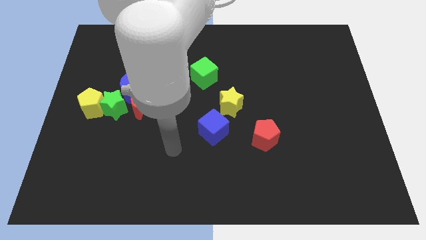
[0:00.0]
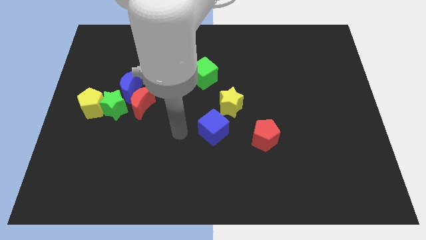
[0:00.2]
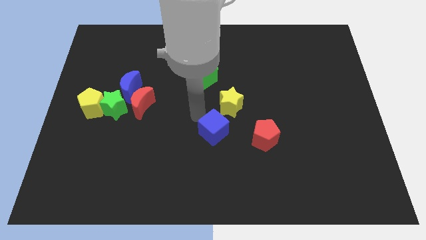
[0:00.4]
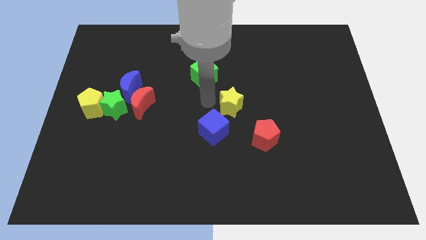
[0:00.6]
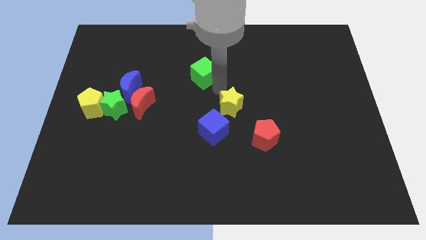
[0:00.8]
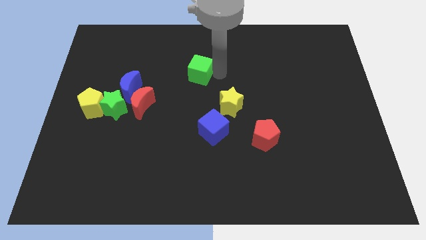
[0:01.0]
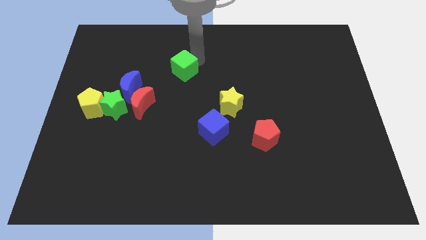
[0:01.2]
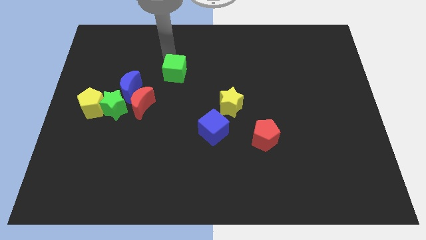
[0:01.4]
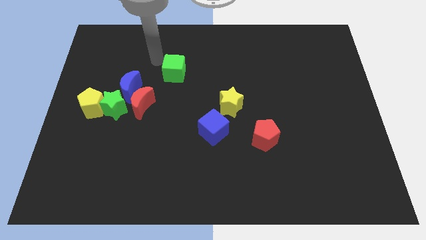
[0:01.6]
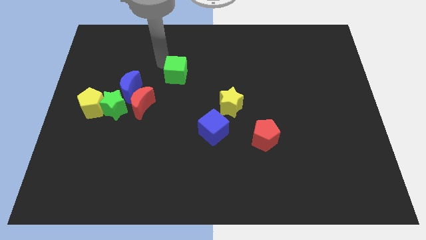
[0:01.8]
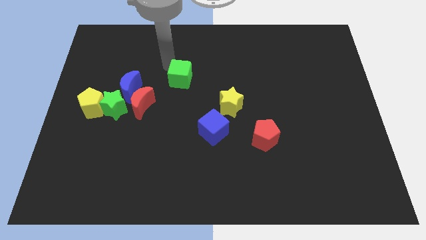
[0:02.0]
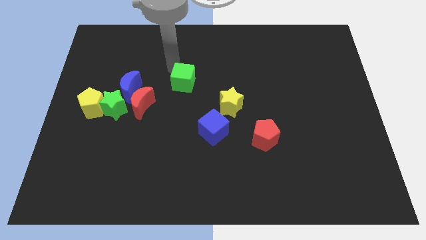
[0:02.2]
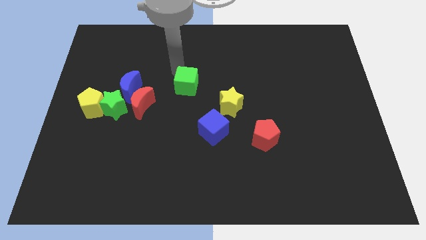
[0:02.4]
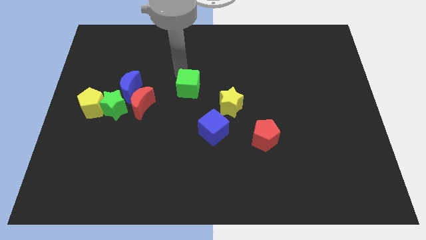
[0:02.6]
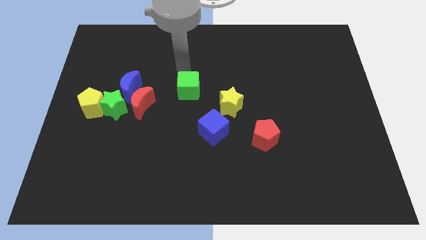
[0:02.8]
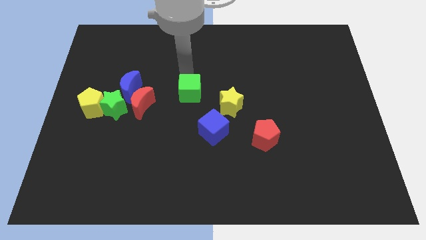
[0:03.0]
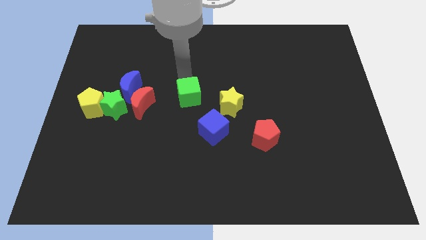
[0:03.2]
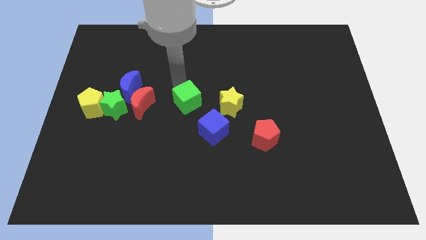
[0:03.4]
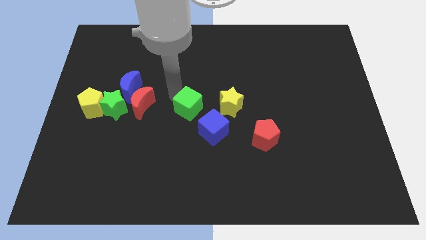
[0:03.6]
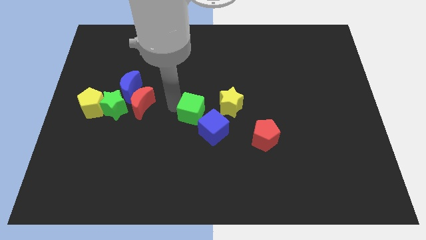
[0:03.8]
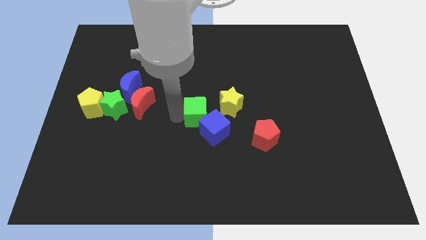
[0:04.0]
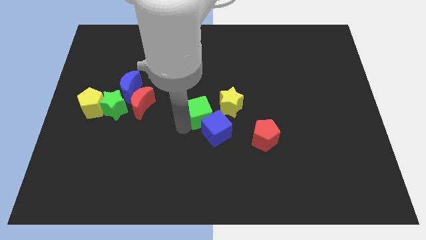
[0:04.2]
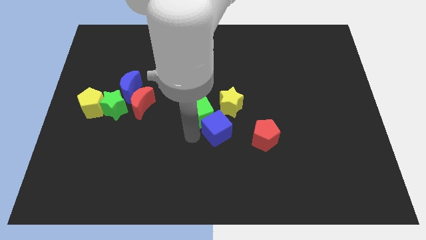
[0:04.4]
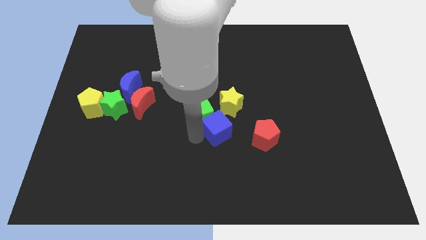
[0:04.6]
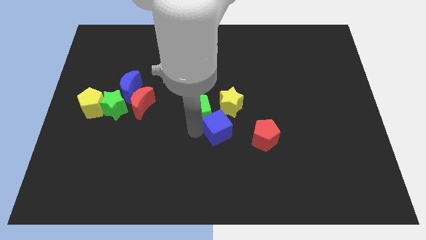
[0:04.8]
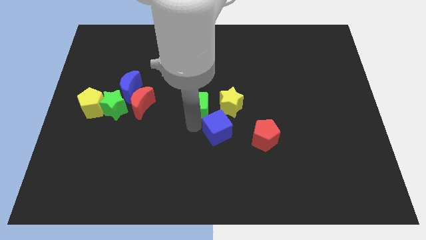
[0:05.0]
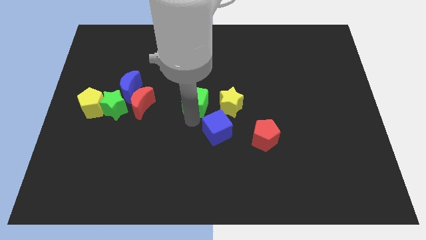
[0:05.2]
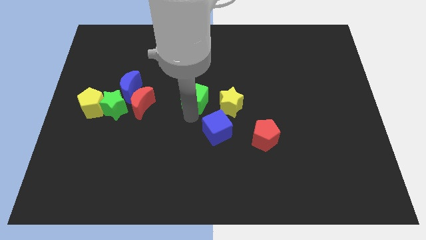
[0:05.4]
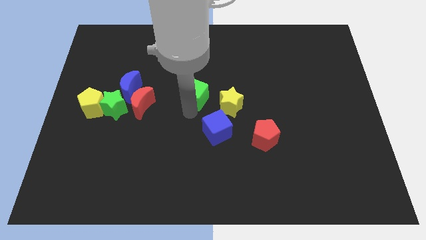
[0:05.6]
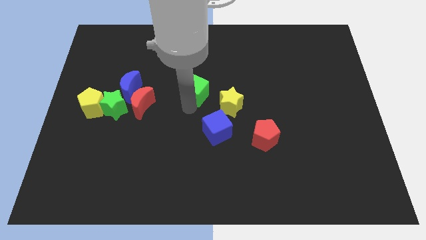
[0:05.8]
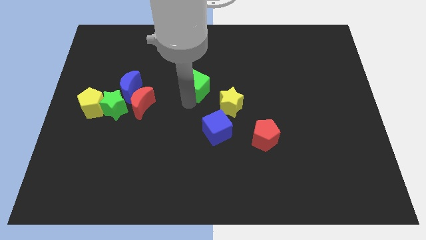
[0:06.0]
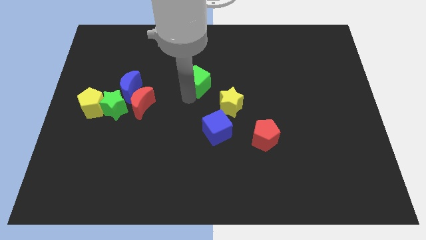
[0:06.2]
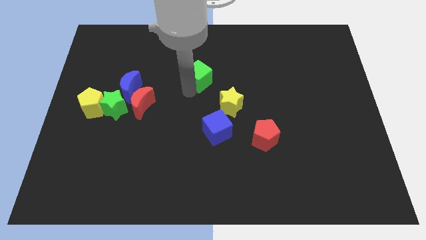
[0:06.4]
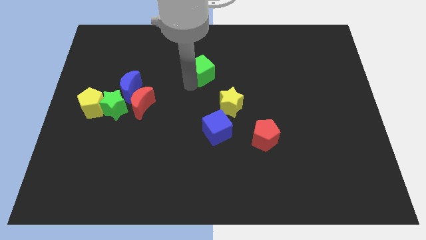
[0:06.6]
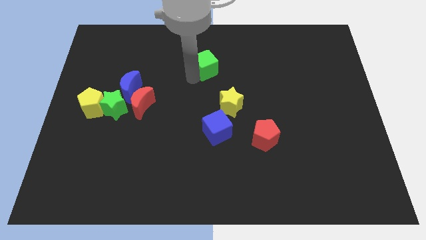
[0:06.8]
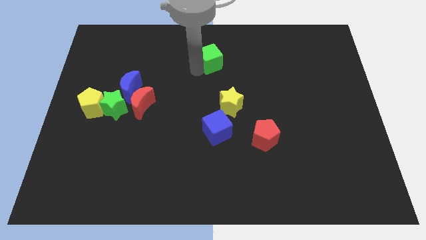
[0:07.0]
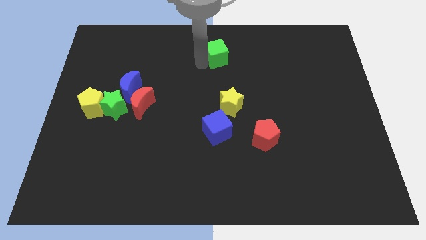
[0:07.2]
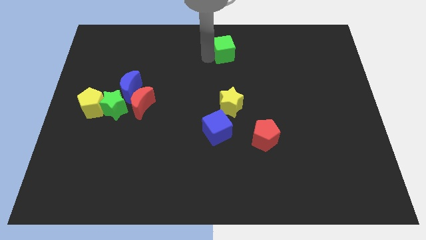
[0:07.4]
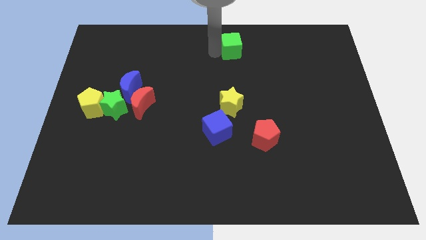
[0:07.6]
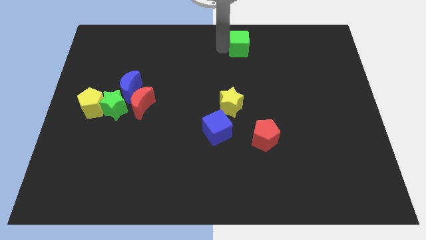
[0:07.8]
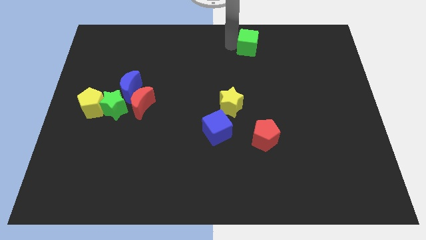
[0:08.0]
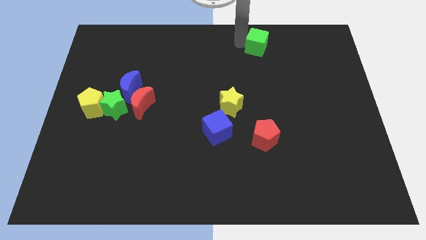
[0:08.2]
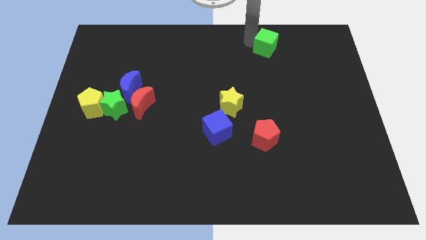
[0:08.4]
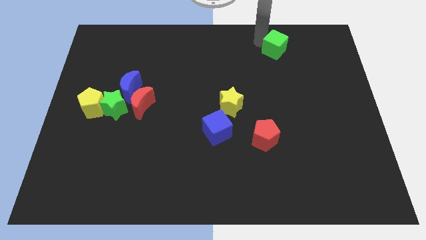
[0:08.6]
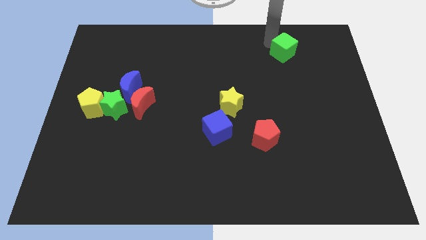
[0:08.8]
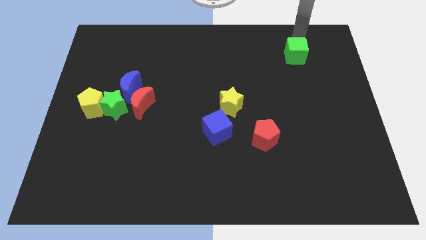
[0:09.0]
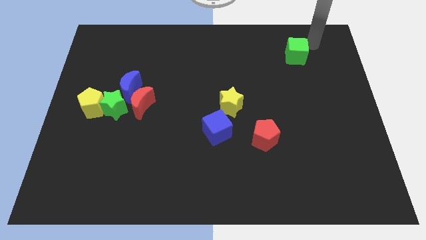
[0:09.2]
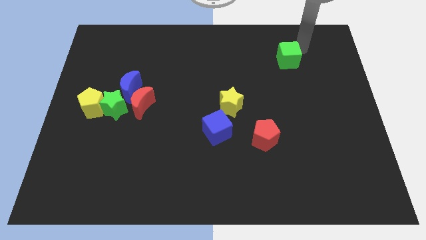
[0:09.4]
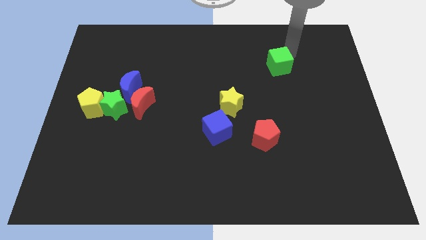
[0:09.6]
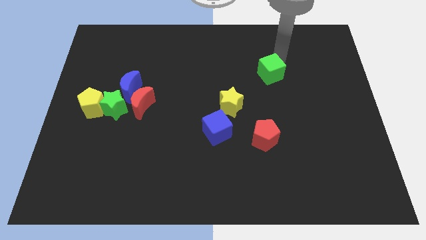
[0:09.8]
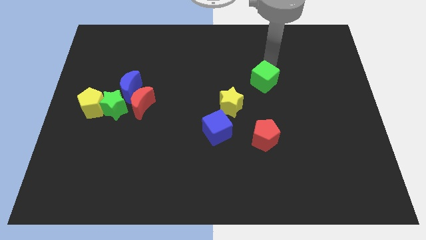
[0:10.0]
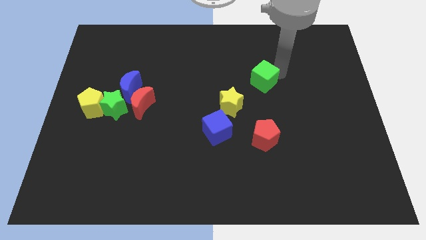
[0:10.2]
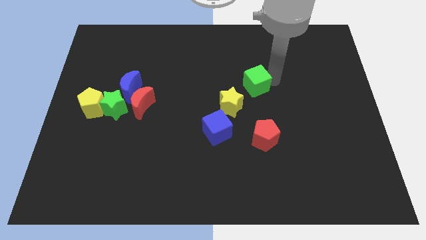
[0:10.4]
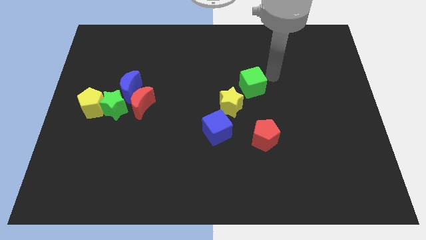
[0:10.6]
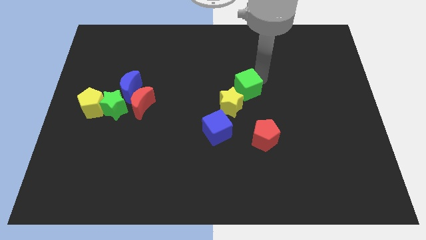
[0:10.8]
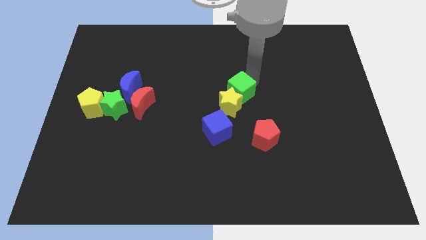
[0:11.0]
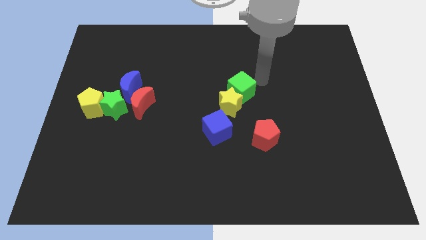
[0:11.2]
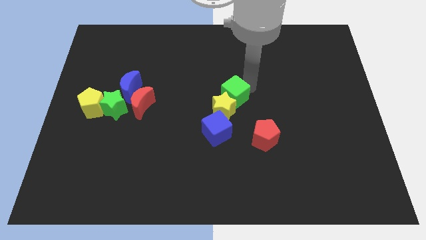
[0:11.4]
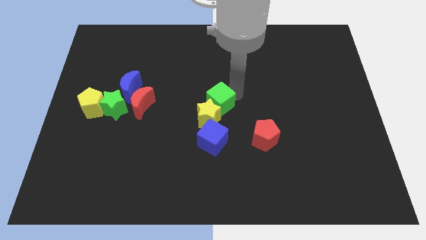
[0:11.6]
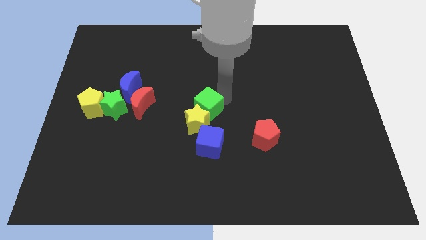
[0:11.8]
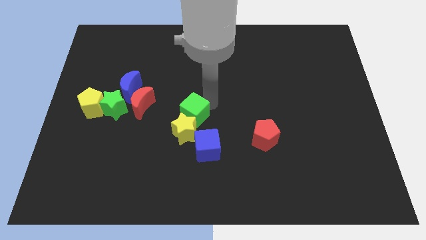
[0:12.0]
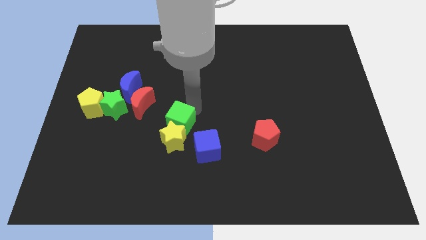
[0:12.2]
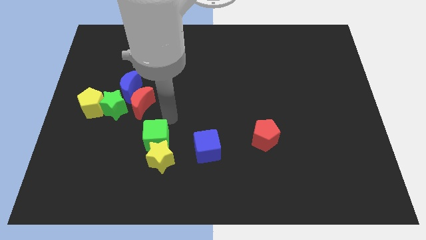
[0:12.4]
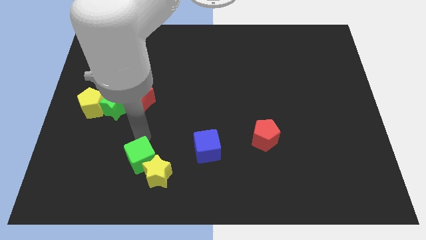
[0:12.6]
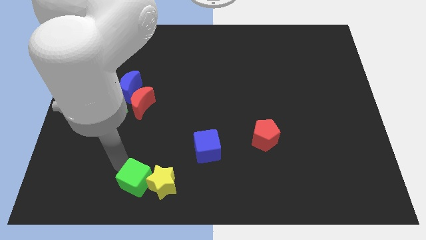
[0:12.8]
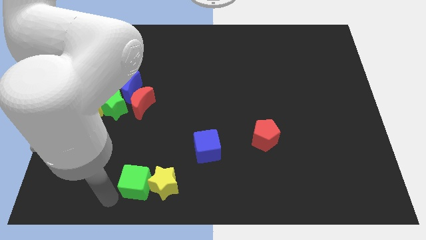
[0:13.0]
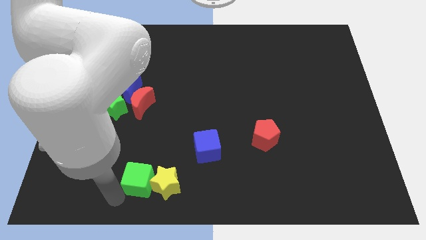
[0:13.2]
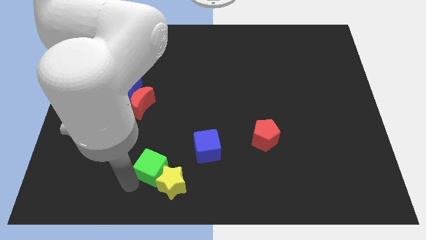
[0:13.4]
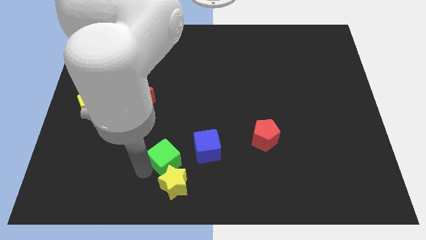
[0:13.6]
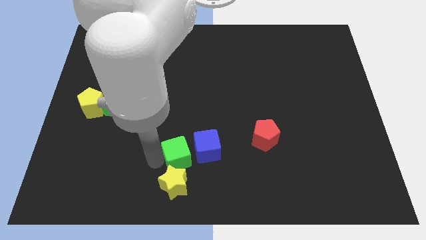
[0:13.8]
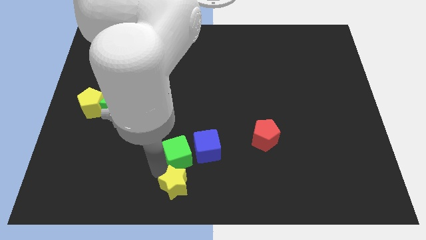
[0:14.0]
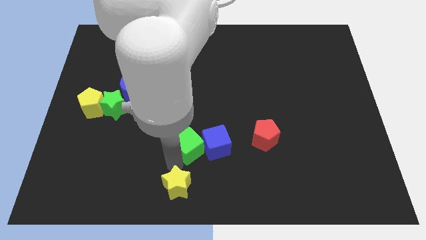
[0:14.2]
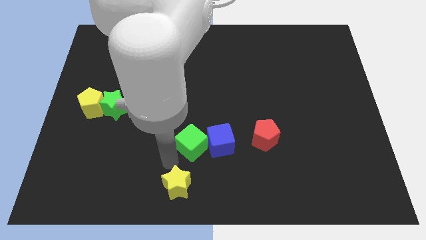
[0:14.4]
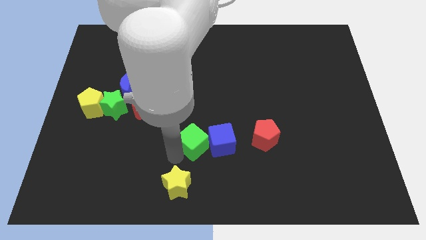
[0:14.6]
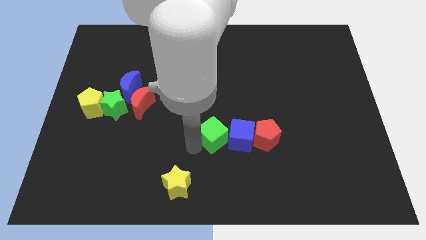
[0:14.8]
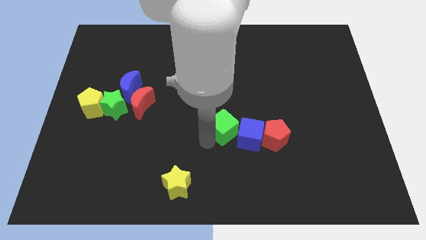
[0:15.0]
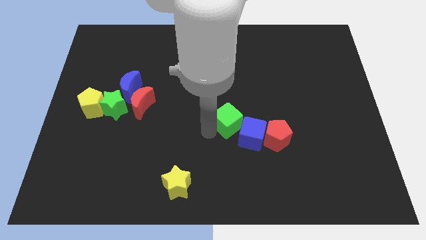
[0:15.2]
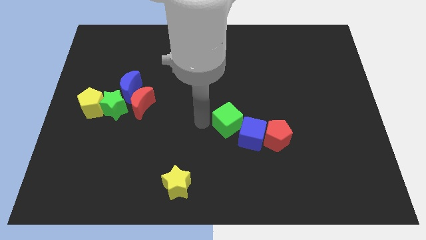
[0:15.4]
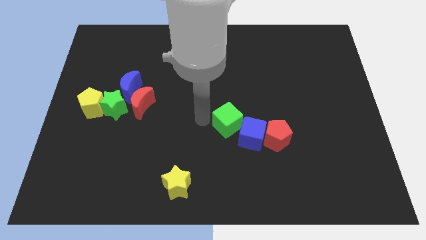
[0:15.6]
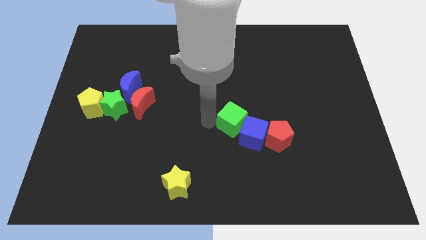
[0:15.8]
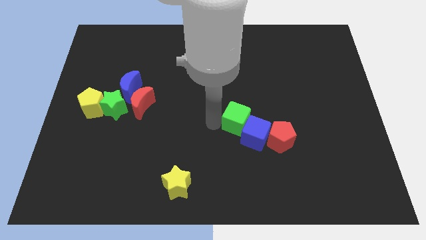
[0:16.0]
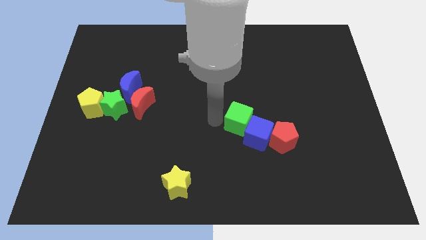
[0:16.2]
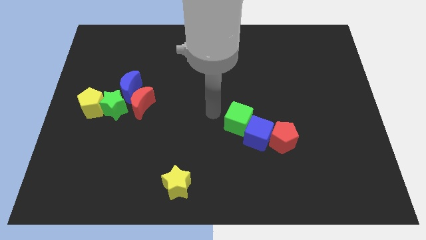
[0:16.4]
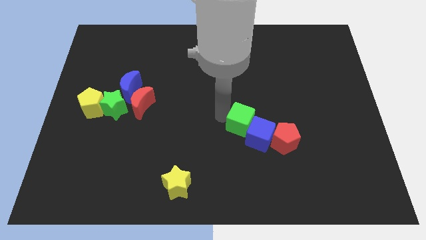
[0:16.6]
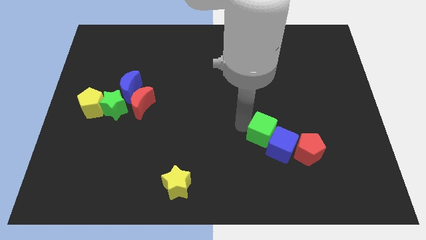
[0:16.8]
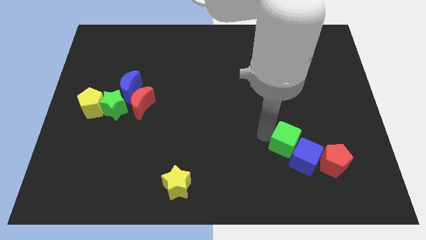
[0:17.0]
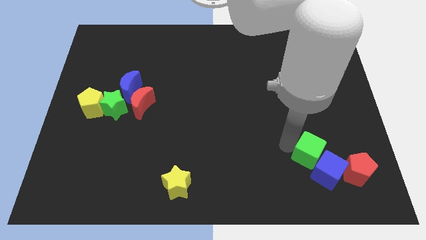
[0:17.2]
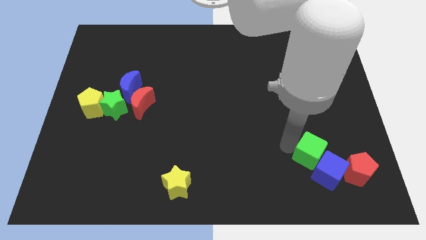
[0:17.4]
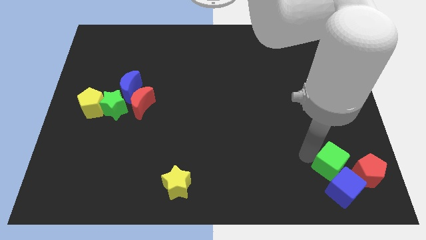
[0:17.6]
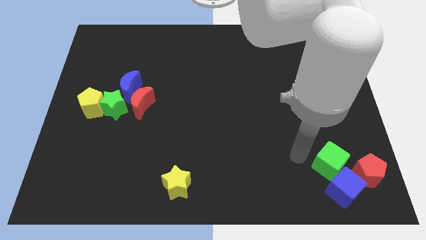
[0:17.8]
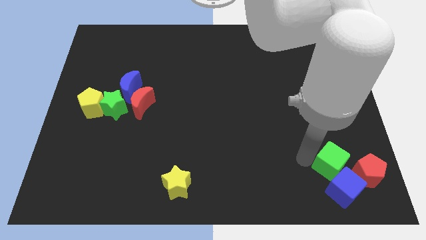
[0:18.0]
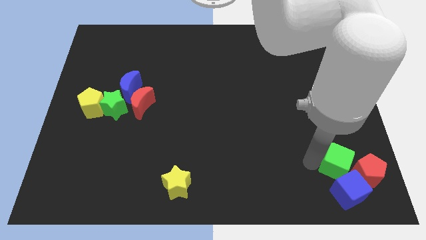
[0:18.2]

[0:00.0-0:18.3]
push the green cube close to the red pentagon
